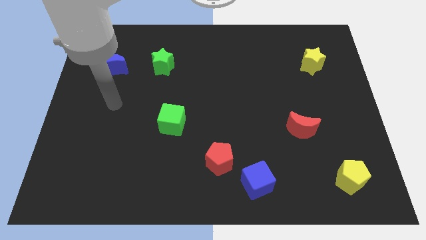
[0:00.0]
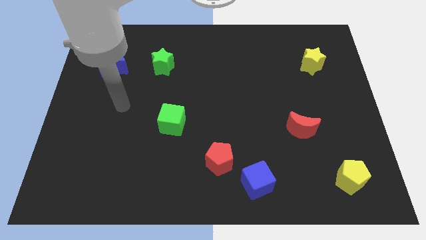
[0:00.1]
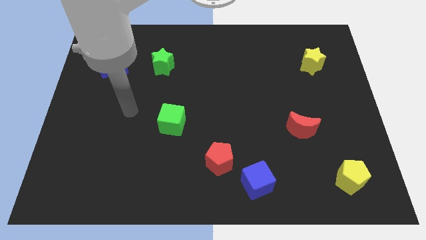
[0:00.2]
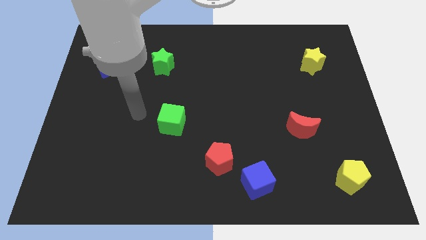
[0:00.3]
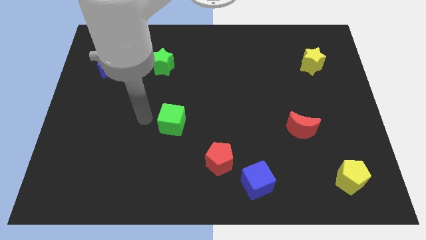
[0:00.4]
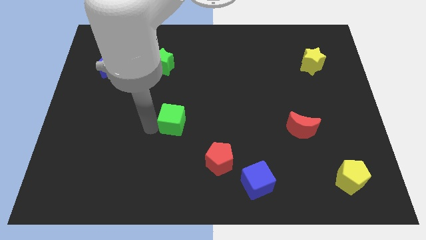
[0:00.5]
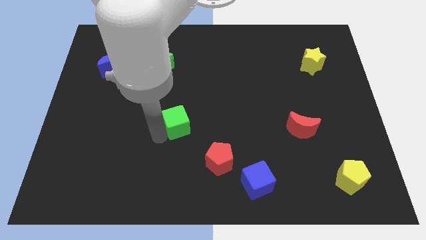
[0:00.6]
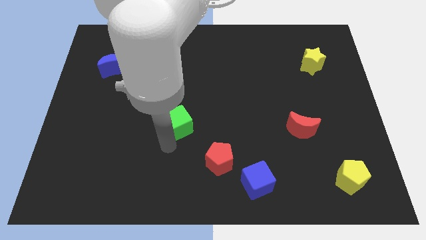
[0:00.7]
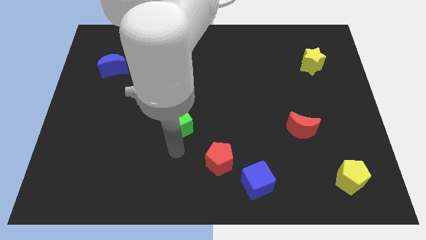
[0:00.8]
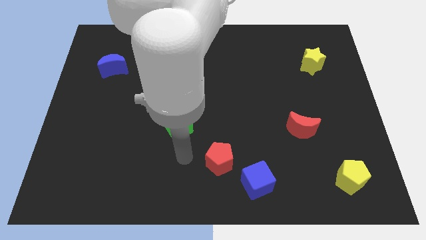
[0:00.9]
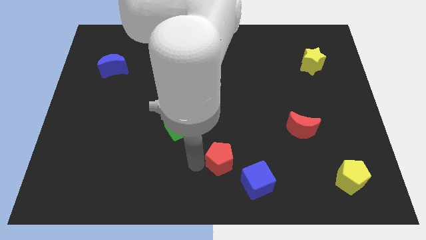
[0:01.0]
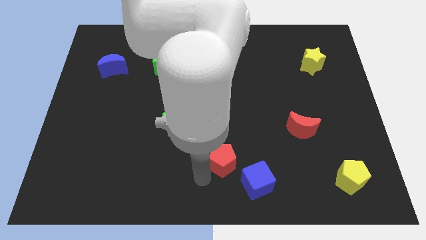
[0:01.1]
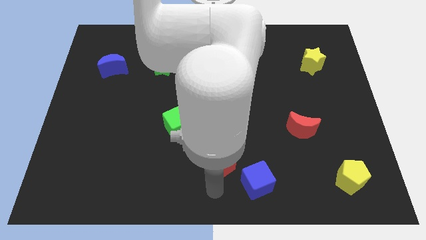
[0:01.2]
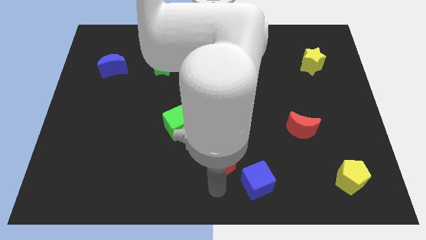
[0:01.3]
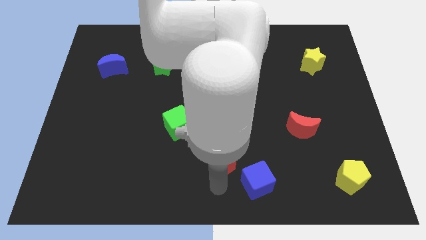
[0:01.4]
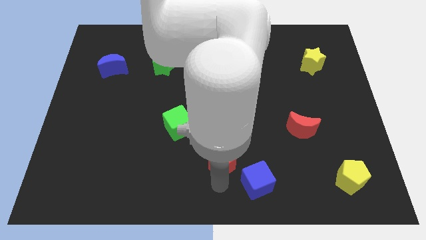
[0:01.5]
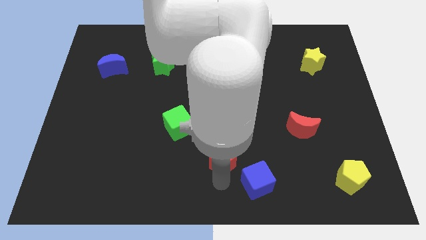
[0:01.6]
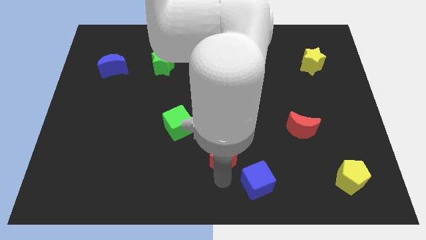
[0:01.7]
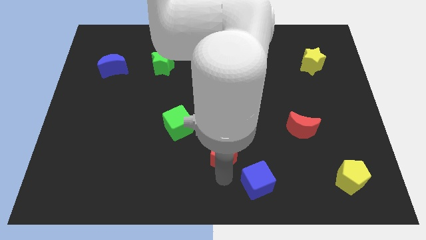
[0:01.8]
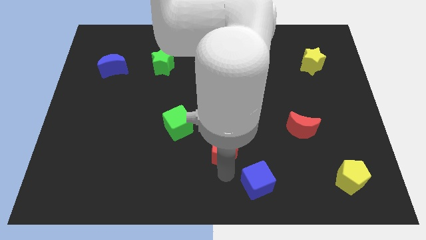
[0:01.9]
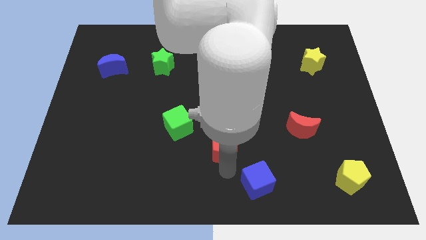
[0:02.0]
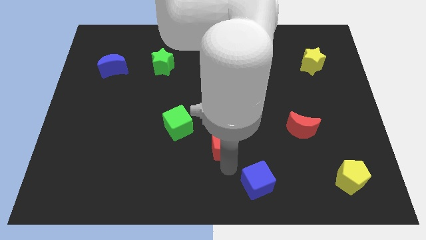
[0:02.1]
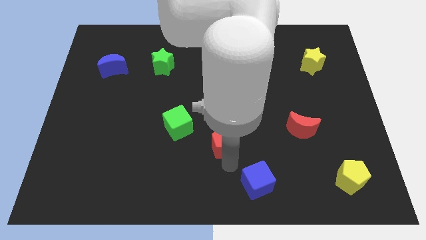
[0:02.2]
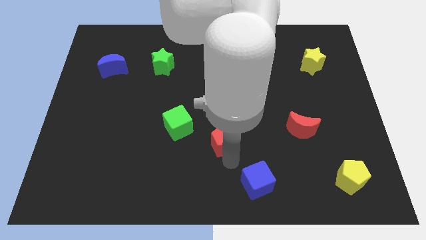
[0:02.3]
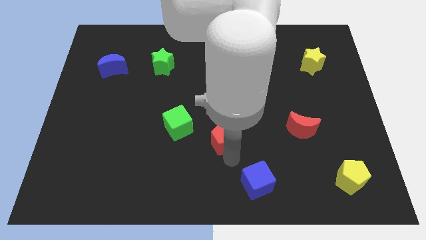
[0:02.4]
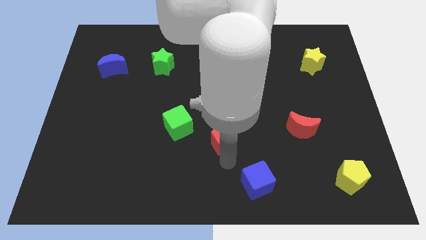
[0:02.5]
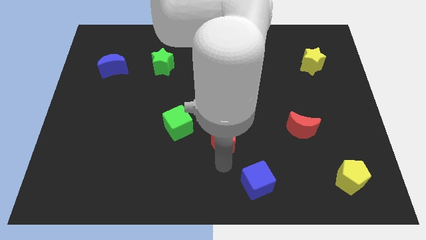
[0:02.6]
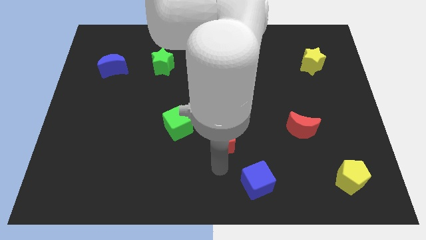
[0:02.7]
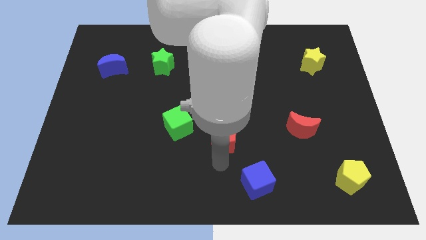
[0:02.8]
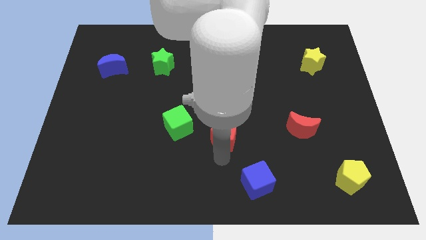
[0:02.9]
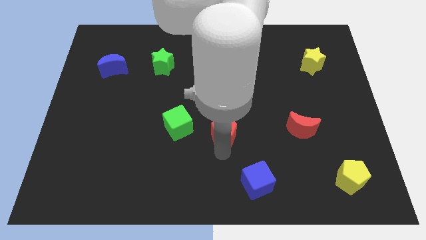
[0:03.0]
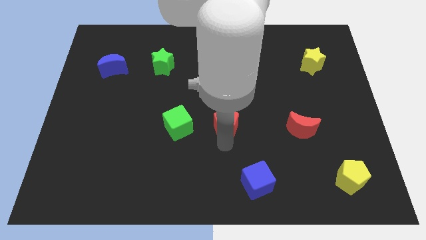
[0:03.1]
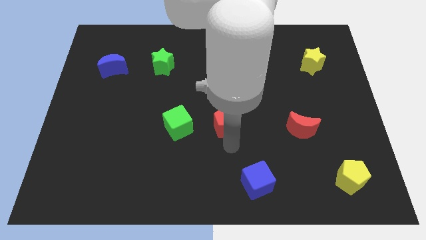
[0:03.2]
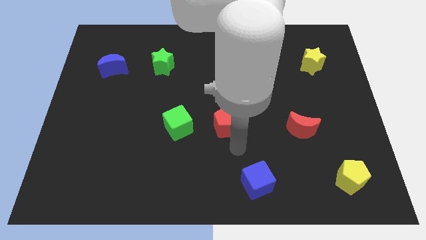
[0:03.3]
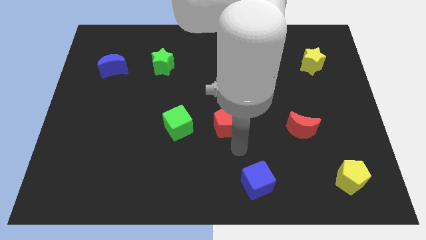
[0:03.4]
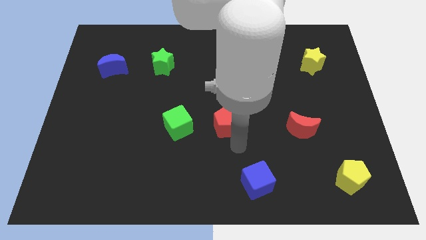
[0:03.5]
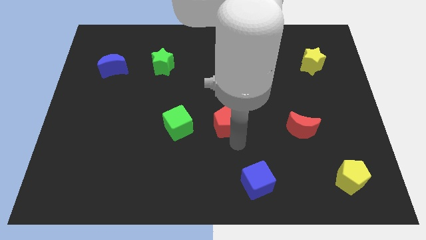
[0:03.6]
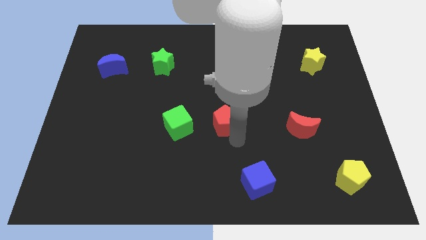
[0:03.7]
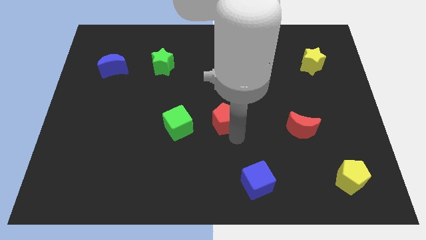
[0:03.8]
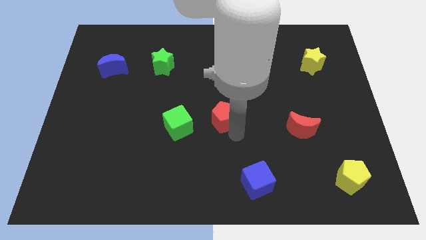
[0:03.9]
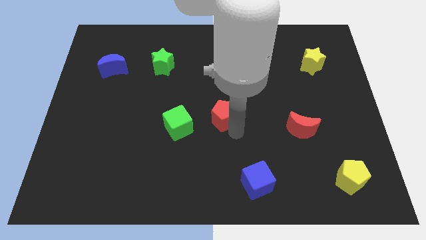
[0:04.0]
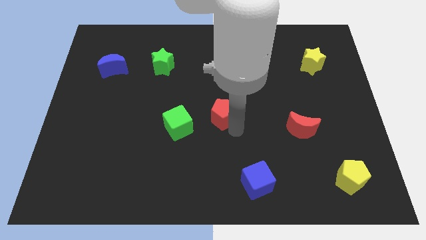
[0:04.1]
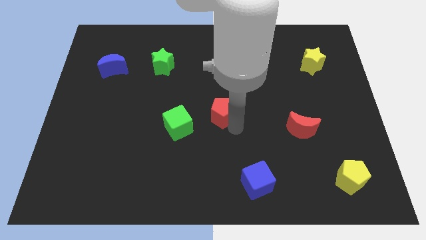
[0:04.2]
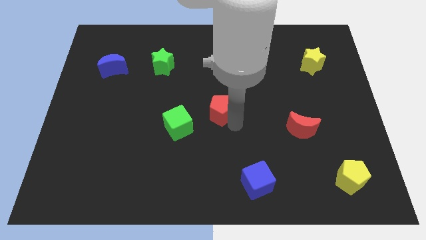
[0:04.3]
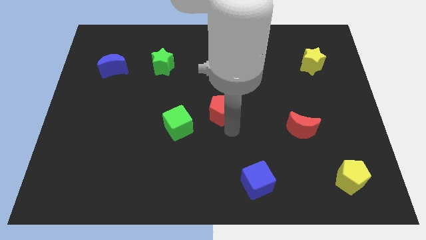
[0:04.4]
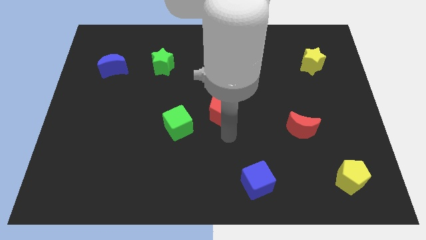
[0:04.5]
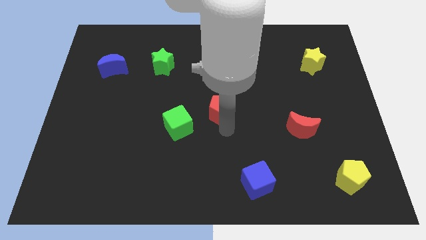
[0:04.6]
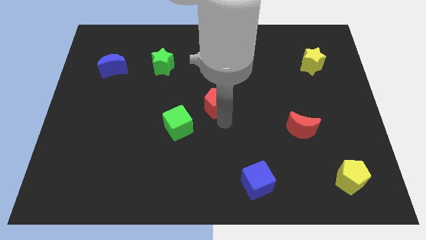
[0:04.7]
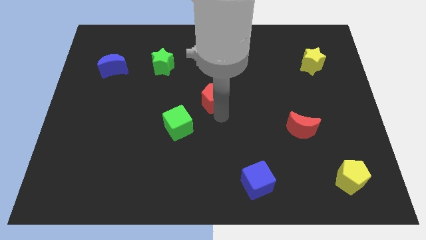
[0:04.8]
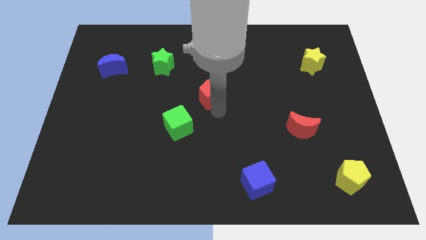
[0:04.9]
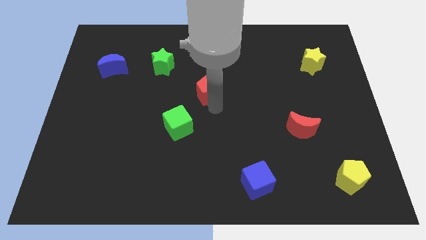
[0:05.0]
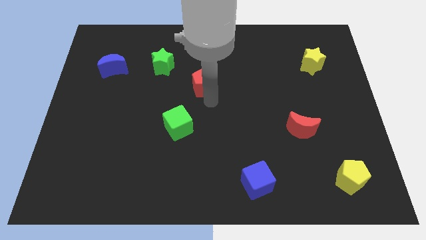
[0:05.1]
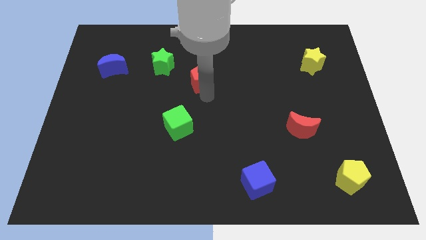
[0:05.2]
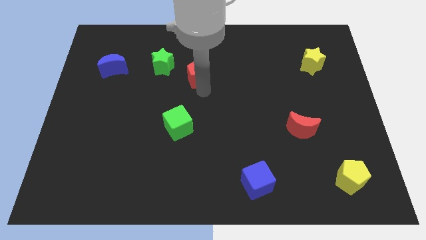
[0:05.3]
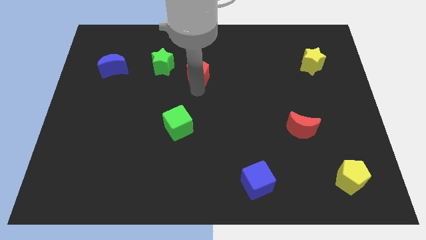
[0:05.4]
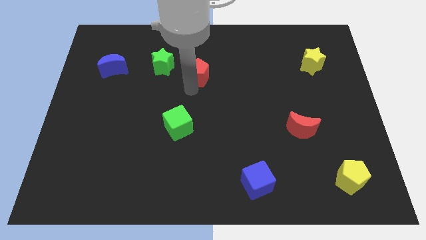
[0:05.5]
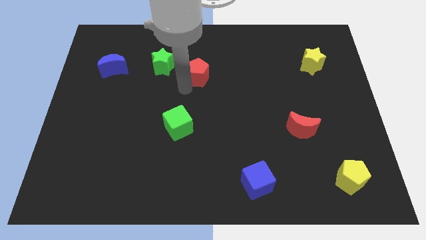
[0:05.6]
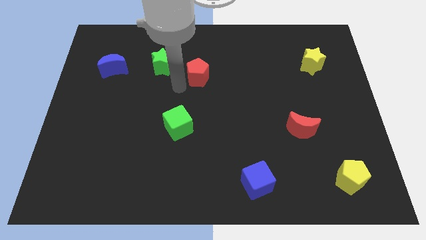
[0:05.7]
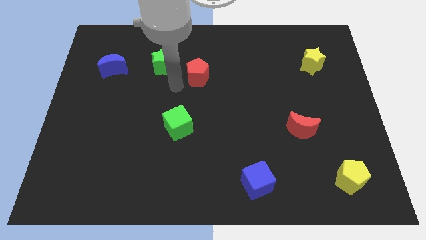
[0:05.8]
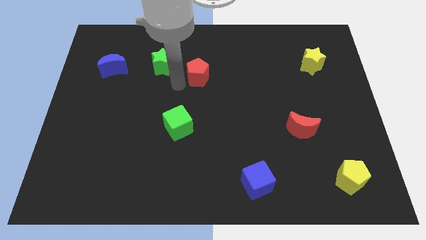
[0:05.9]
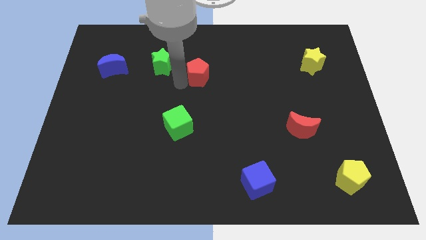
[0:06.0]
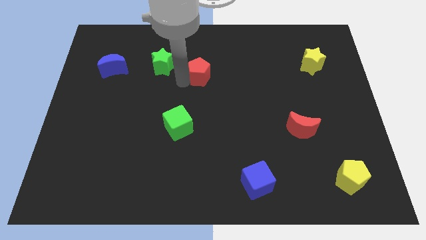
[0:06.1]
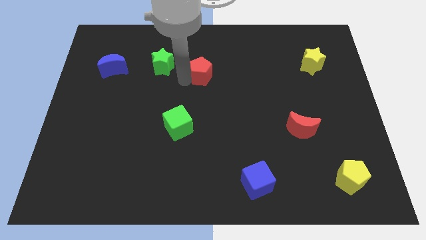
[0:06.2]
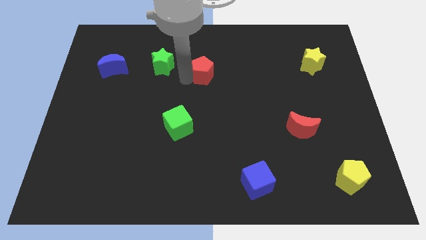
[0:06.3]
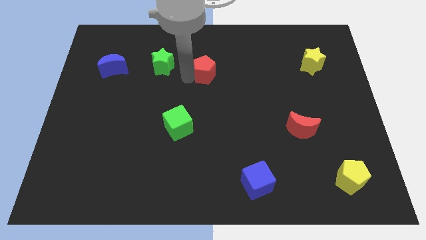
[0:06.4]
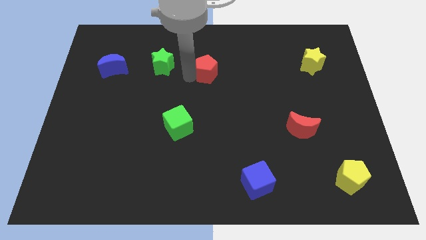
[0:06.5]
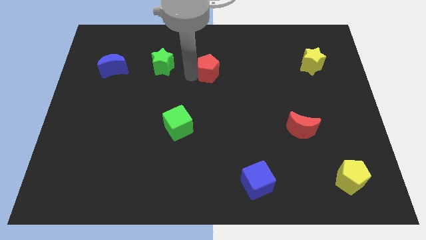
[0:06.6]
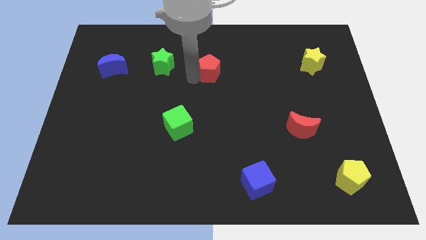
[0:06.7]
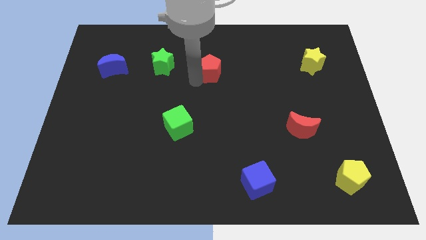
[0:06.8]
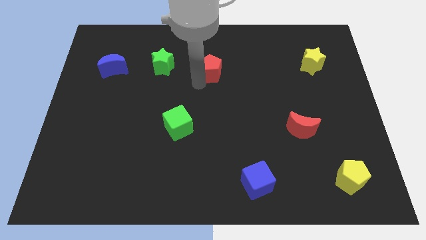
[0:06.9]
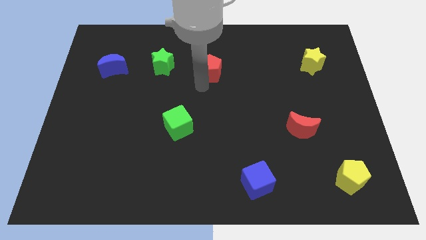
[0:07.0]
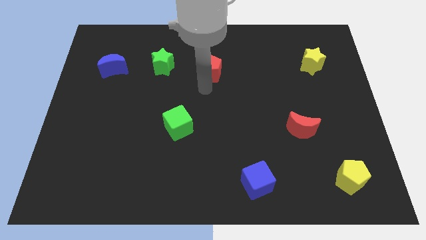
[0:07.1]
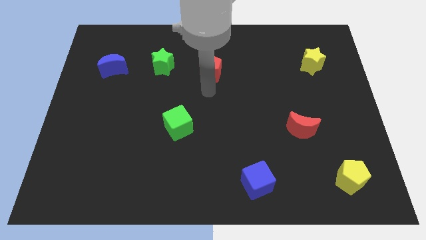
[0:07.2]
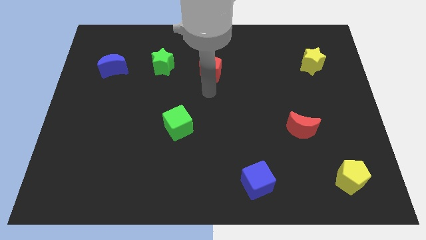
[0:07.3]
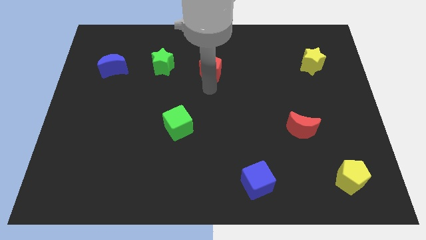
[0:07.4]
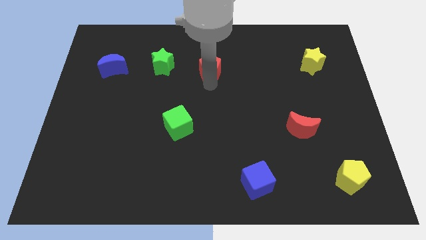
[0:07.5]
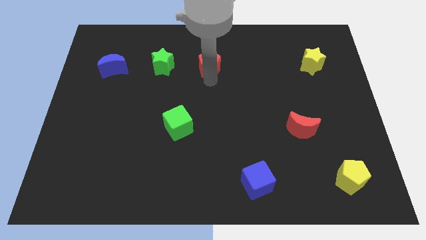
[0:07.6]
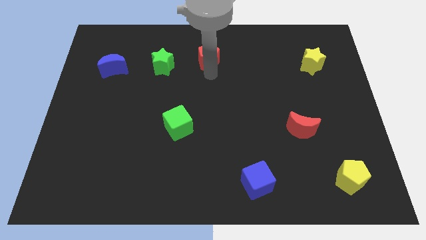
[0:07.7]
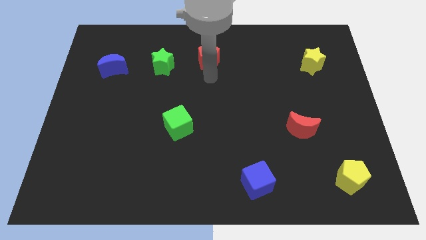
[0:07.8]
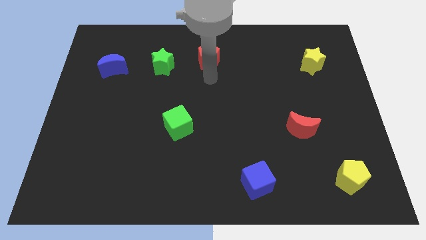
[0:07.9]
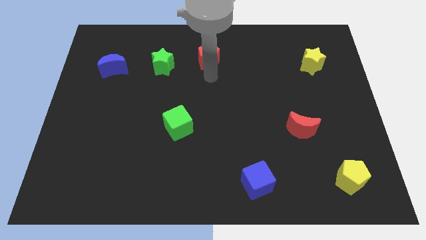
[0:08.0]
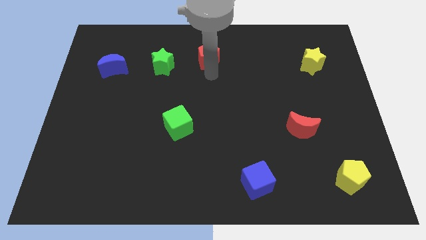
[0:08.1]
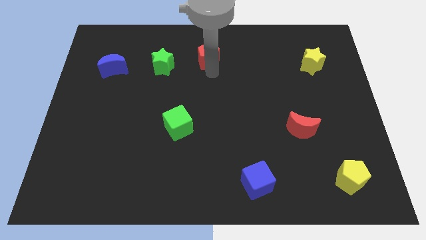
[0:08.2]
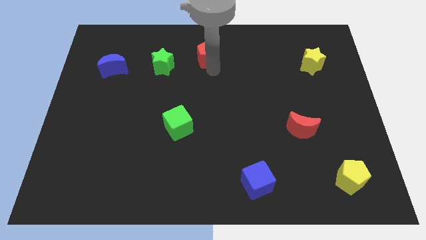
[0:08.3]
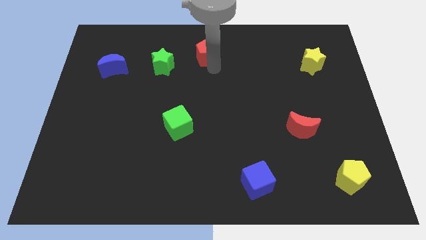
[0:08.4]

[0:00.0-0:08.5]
put the red pentagon to the top side
